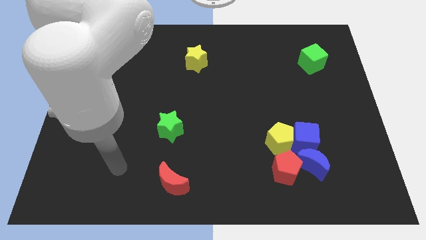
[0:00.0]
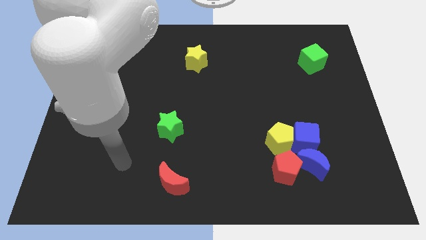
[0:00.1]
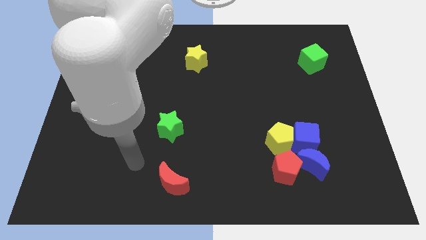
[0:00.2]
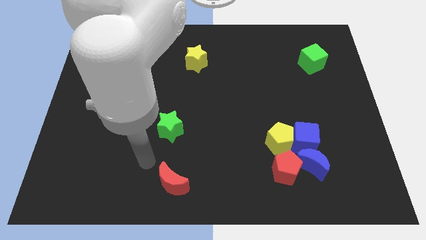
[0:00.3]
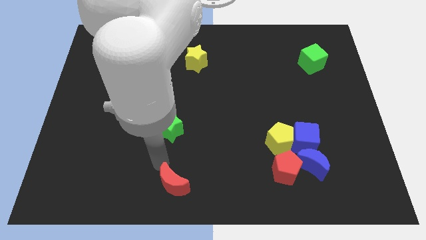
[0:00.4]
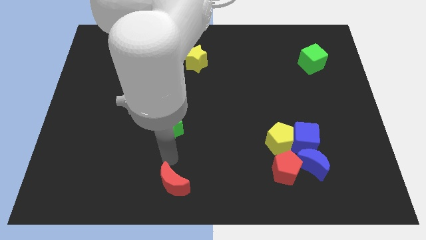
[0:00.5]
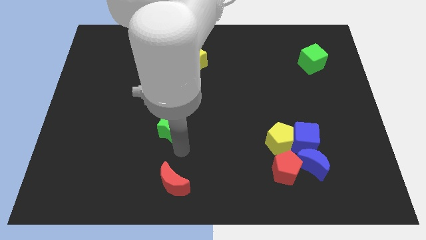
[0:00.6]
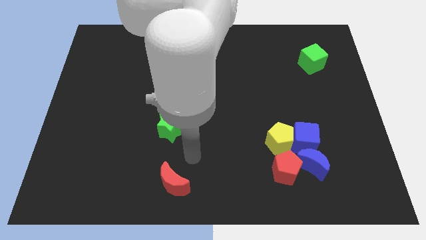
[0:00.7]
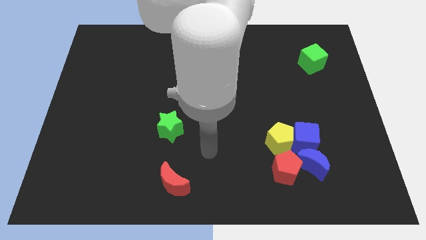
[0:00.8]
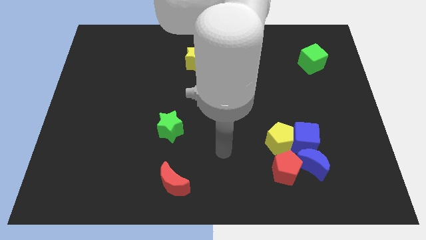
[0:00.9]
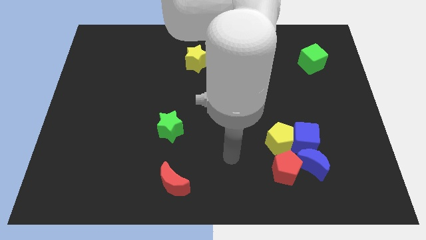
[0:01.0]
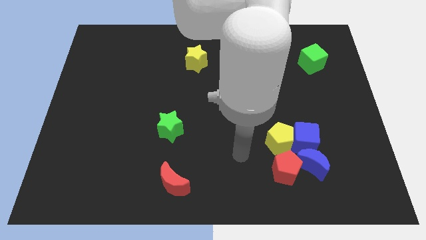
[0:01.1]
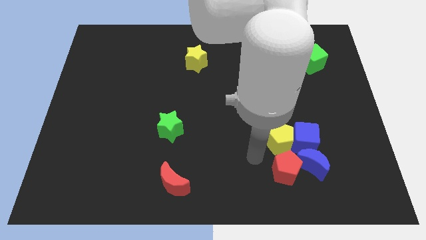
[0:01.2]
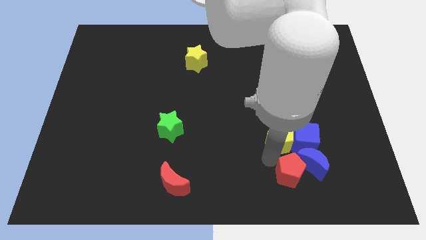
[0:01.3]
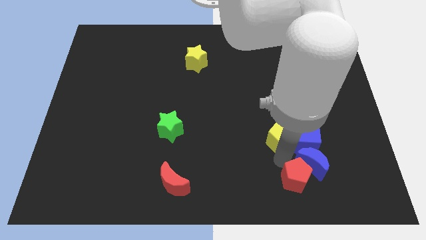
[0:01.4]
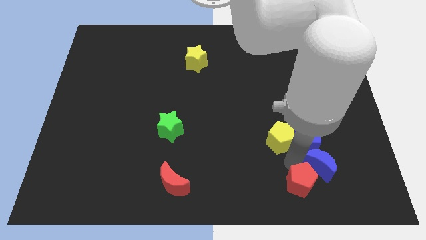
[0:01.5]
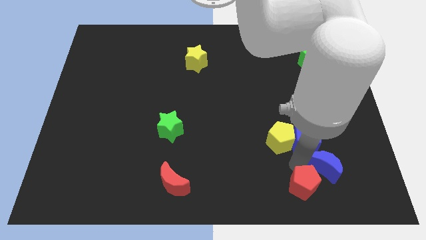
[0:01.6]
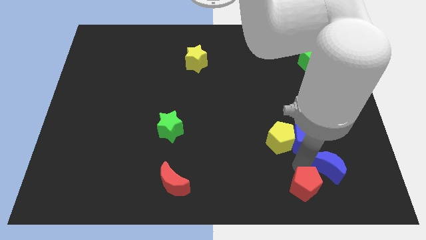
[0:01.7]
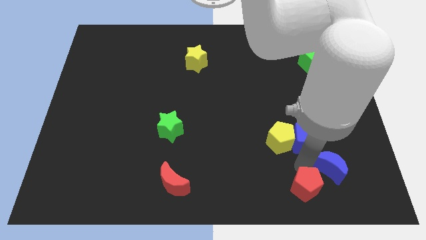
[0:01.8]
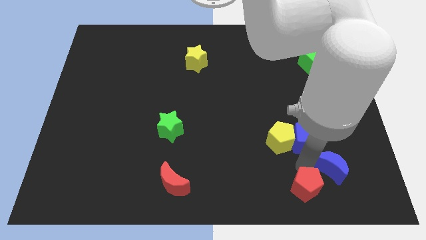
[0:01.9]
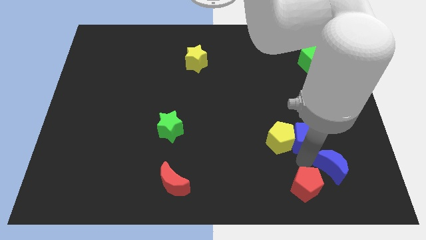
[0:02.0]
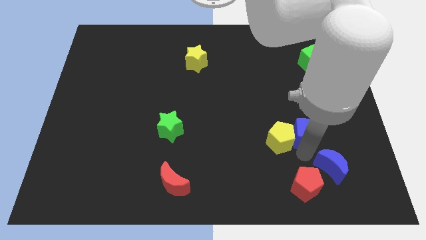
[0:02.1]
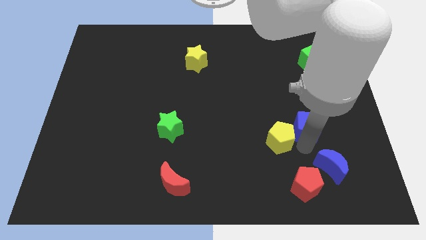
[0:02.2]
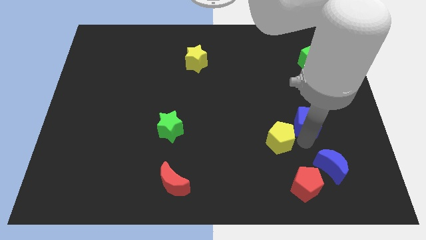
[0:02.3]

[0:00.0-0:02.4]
pull the blue cube apart from the clump

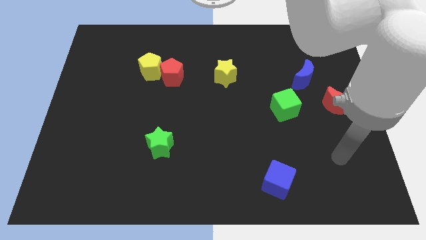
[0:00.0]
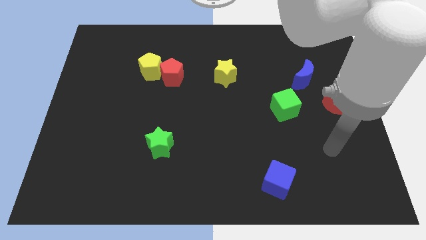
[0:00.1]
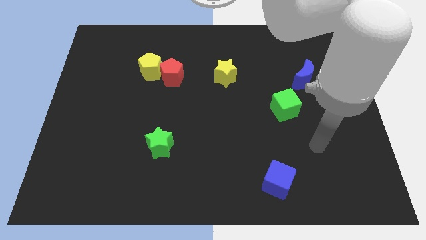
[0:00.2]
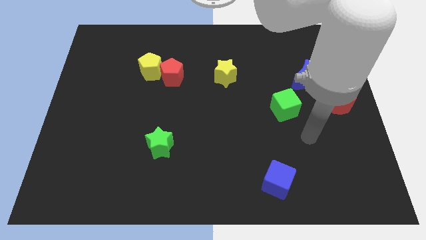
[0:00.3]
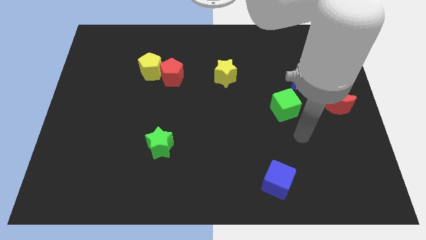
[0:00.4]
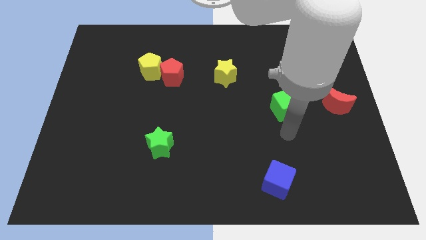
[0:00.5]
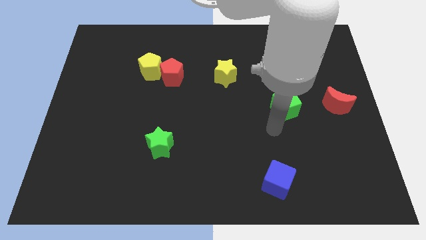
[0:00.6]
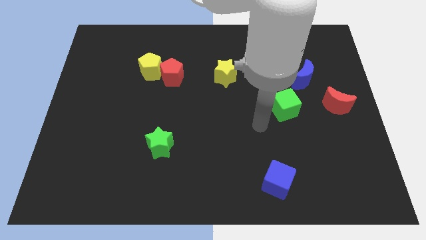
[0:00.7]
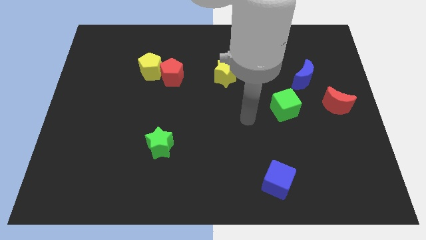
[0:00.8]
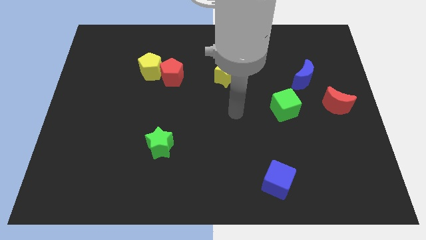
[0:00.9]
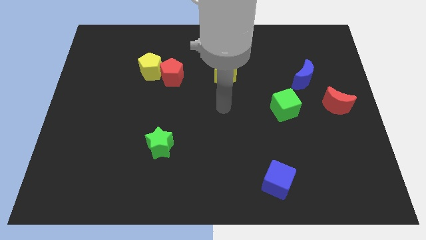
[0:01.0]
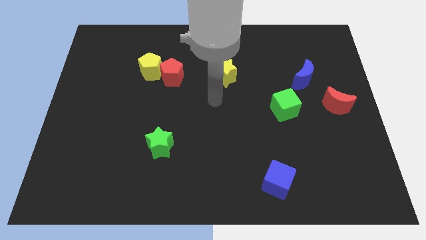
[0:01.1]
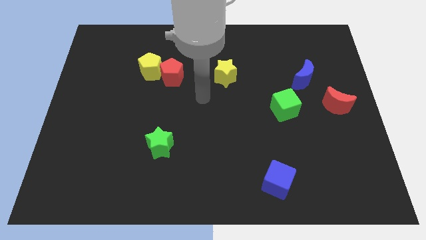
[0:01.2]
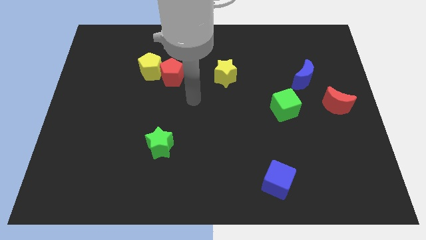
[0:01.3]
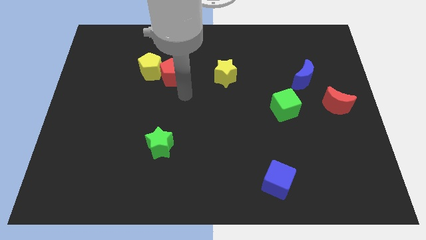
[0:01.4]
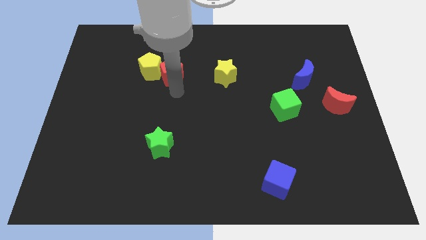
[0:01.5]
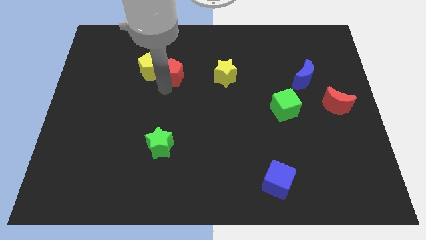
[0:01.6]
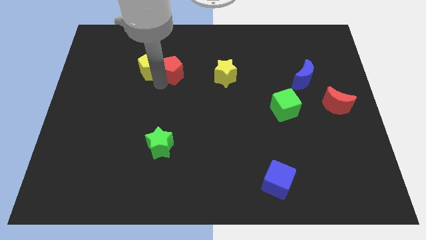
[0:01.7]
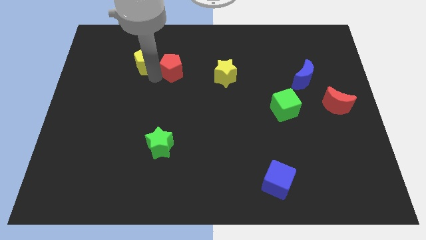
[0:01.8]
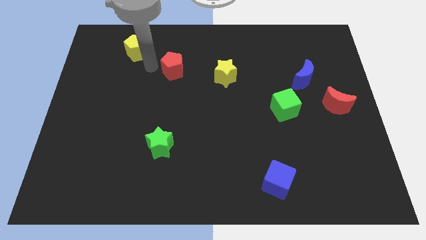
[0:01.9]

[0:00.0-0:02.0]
separate the red pentagon from the yellow pentagon

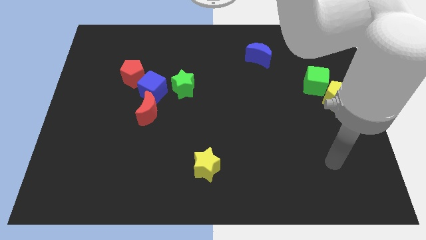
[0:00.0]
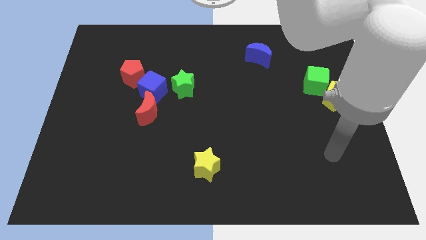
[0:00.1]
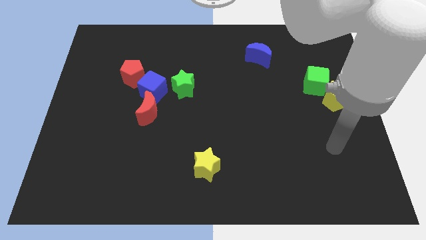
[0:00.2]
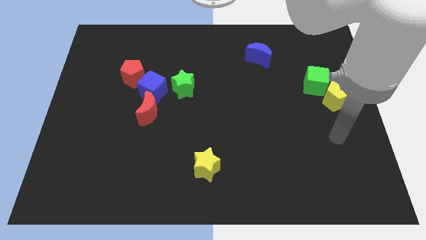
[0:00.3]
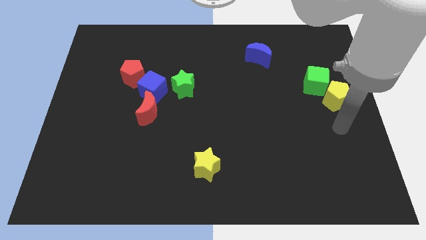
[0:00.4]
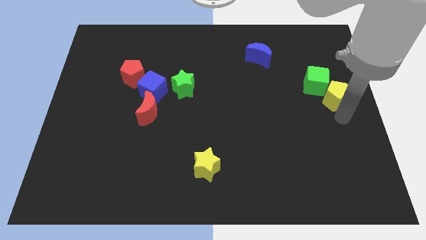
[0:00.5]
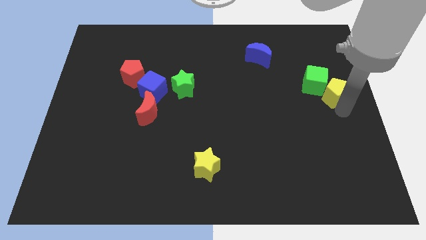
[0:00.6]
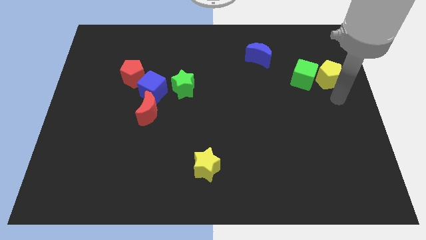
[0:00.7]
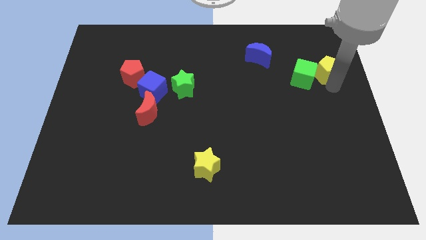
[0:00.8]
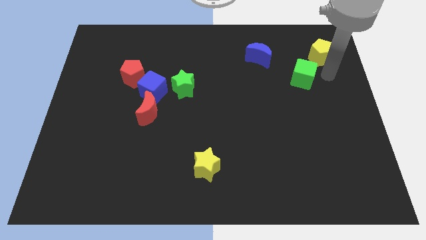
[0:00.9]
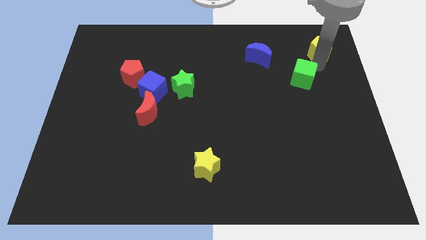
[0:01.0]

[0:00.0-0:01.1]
separate the green cube from the yellow pentagon

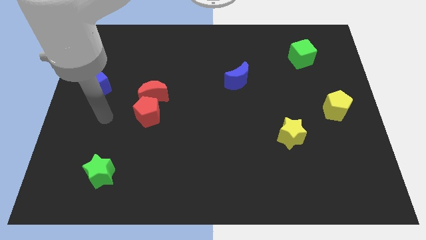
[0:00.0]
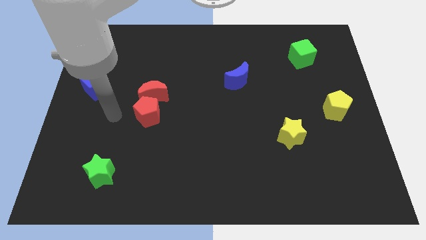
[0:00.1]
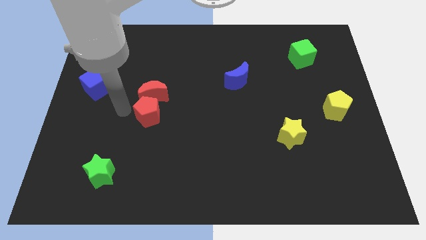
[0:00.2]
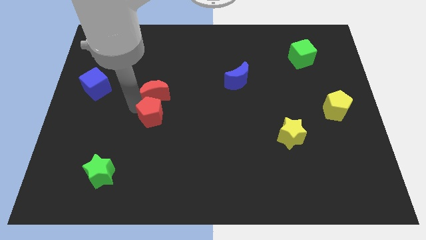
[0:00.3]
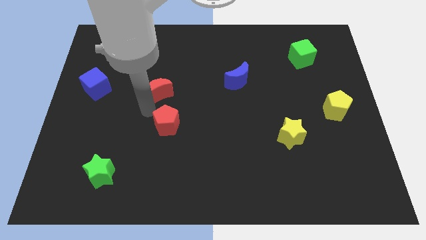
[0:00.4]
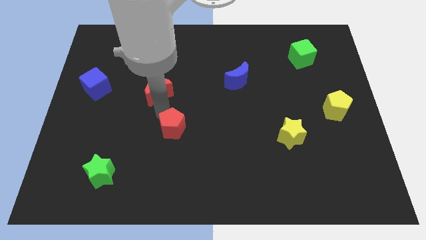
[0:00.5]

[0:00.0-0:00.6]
separate the red moon from the red pentagon

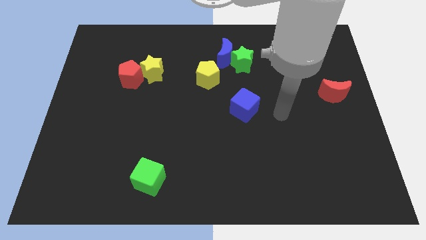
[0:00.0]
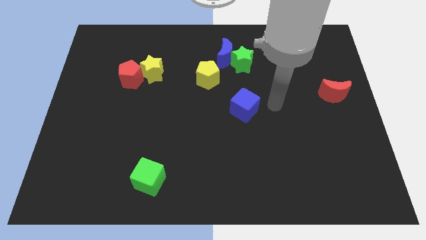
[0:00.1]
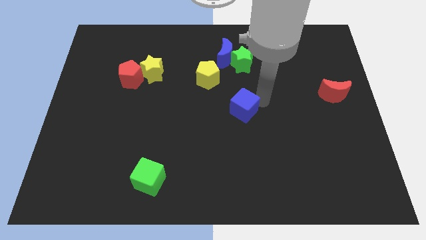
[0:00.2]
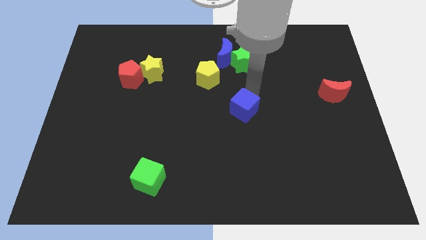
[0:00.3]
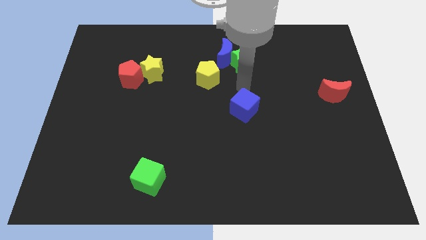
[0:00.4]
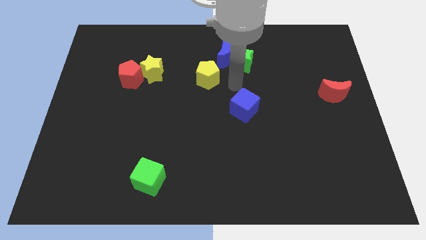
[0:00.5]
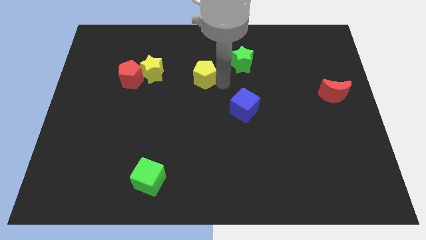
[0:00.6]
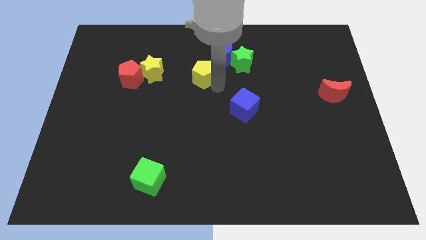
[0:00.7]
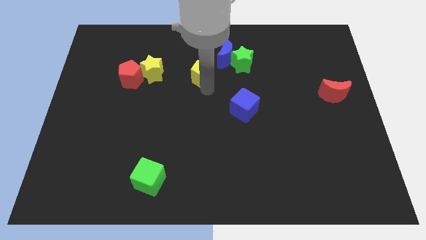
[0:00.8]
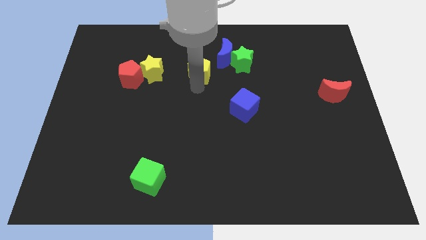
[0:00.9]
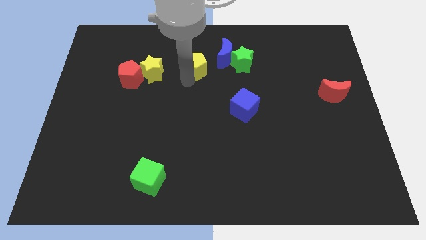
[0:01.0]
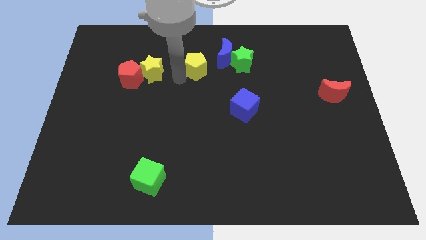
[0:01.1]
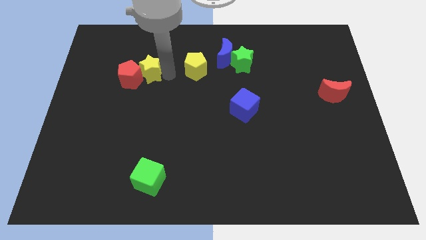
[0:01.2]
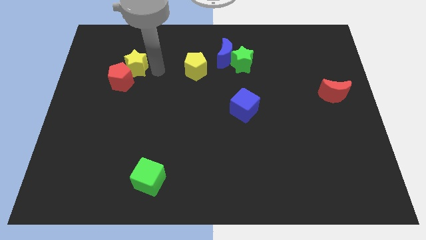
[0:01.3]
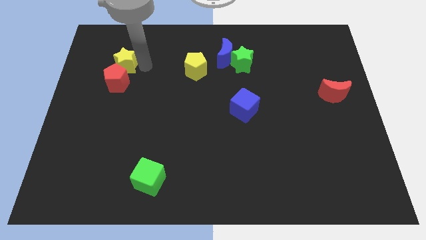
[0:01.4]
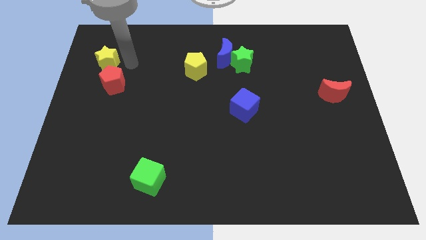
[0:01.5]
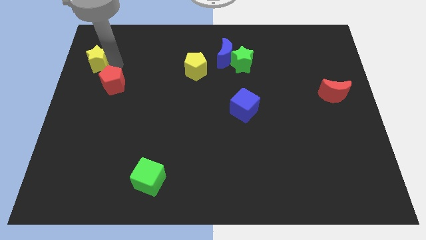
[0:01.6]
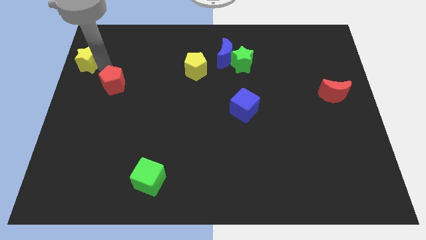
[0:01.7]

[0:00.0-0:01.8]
separate the red pentagon from the yellow star

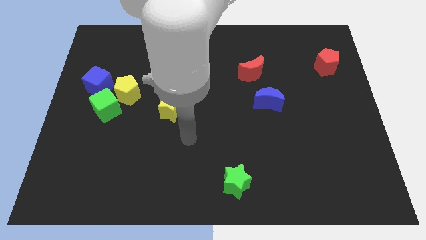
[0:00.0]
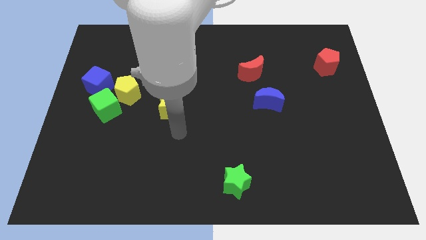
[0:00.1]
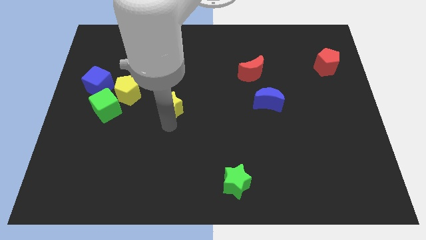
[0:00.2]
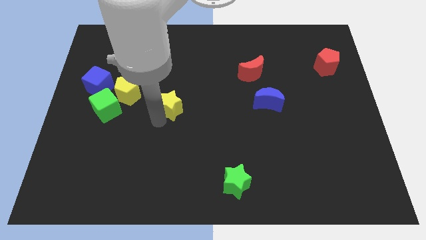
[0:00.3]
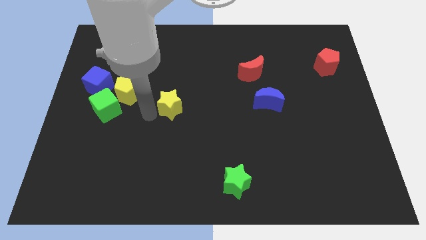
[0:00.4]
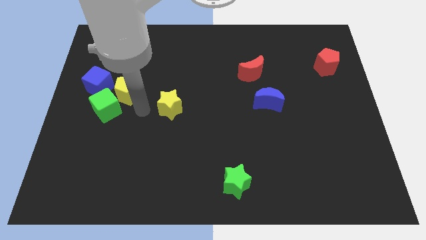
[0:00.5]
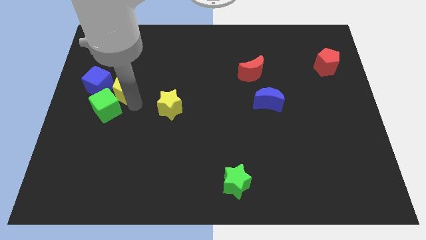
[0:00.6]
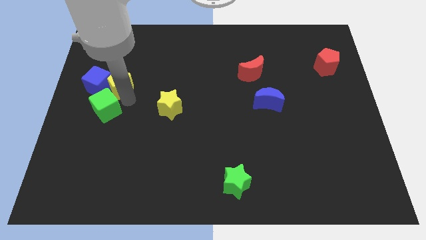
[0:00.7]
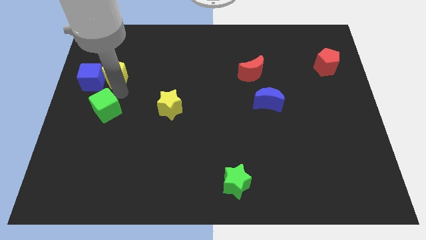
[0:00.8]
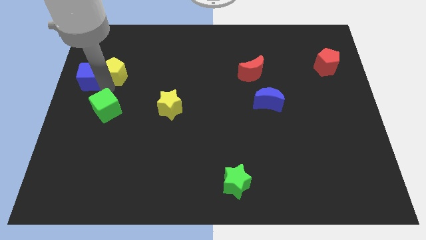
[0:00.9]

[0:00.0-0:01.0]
move the green cube away from the yellow pentagon and blue cube

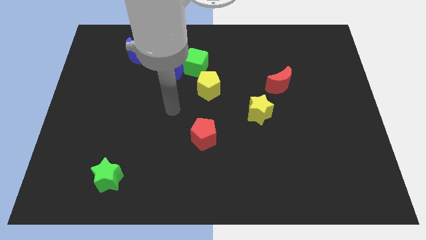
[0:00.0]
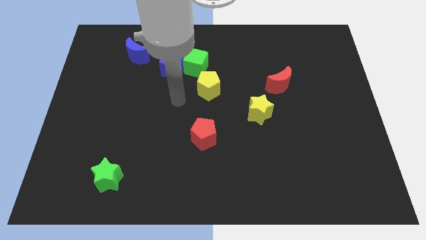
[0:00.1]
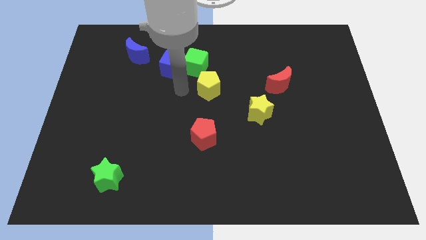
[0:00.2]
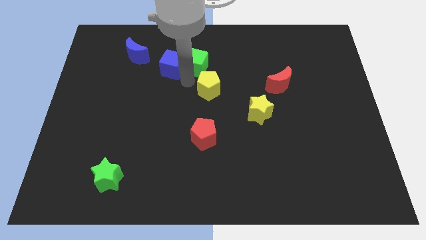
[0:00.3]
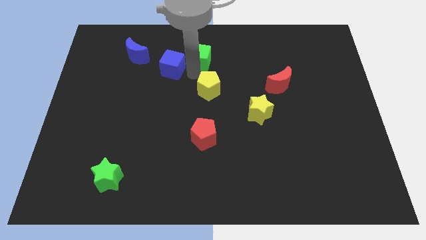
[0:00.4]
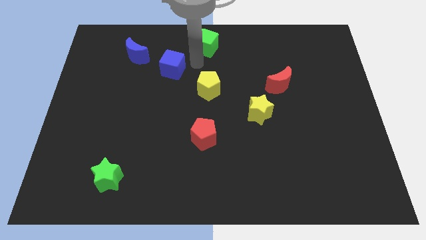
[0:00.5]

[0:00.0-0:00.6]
move the blue cube away from the green cube

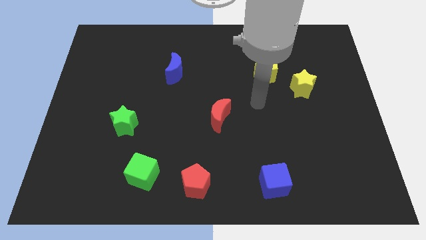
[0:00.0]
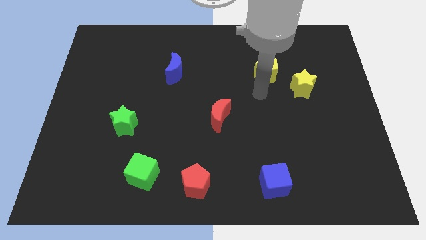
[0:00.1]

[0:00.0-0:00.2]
move the yellow star away from the yellow pentagon
